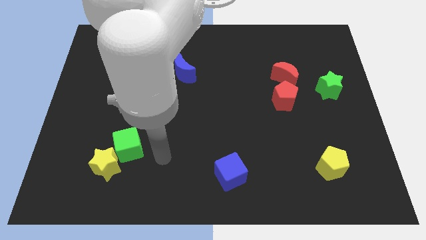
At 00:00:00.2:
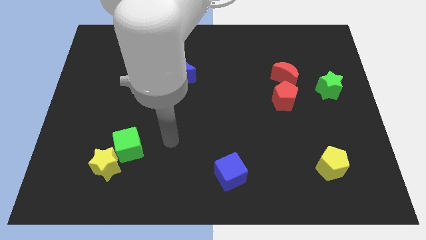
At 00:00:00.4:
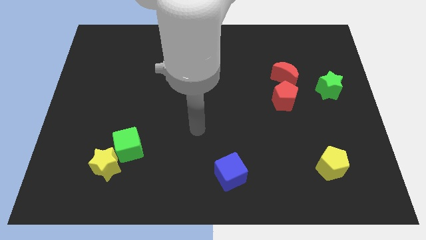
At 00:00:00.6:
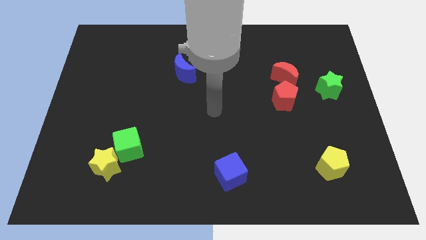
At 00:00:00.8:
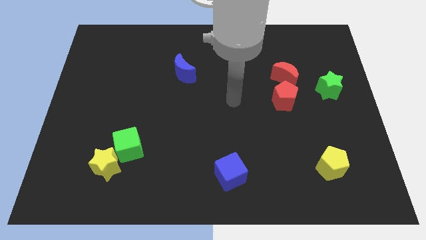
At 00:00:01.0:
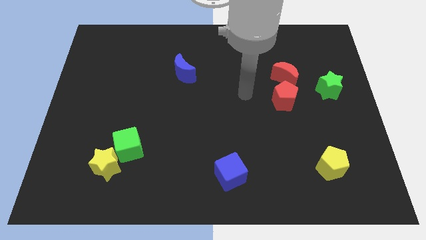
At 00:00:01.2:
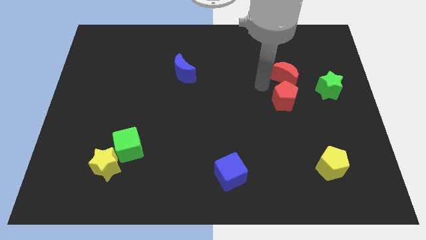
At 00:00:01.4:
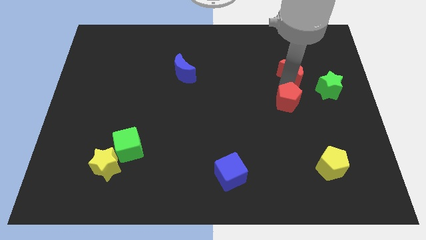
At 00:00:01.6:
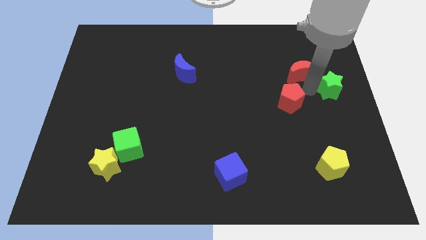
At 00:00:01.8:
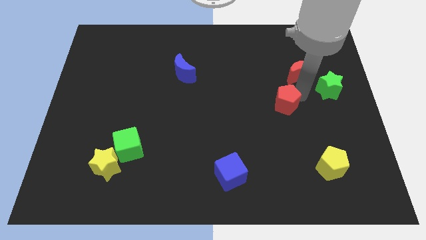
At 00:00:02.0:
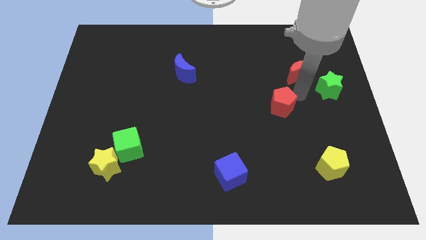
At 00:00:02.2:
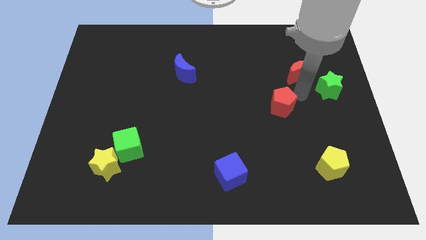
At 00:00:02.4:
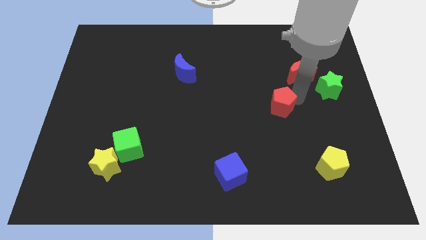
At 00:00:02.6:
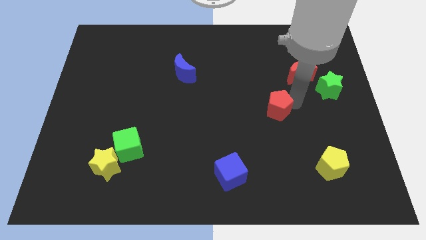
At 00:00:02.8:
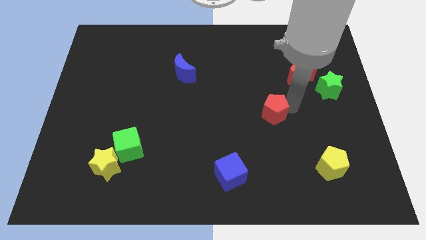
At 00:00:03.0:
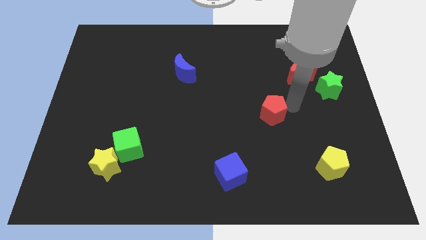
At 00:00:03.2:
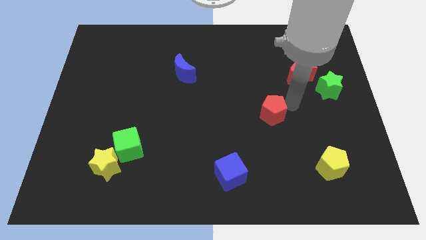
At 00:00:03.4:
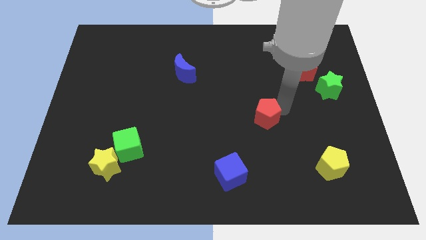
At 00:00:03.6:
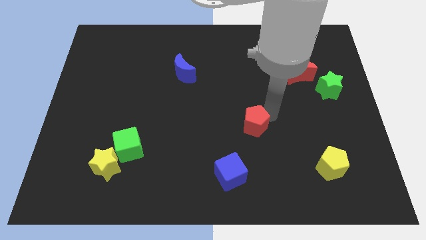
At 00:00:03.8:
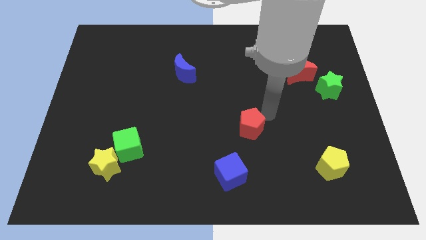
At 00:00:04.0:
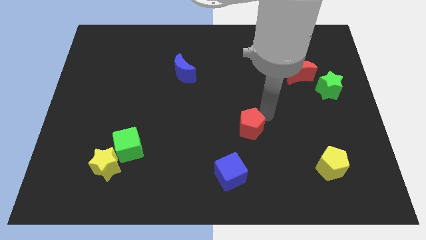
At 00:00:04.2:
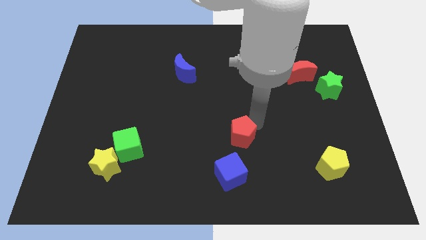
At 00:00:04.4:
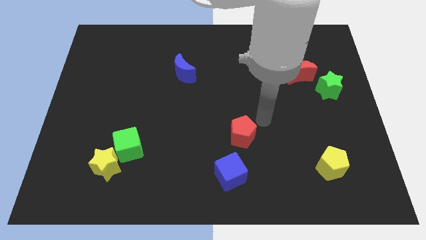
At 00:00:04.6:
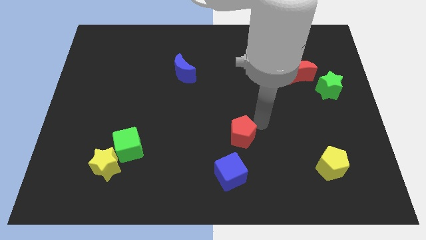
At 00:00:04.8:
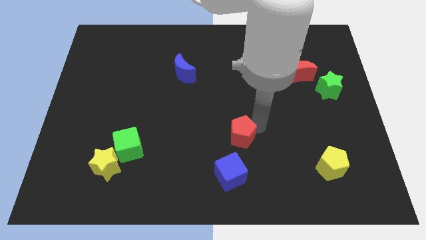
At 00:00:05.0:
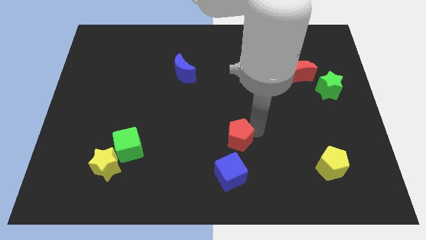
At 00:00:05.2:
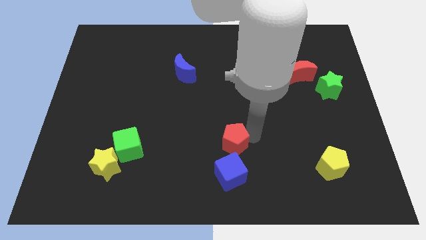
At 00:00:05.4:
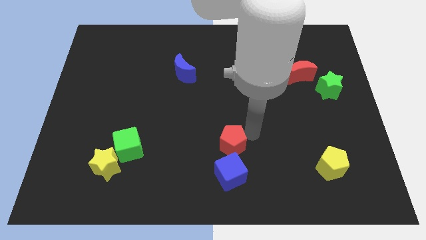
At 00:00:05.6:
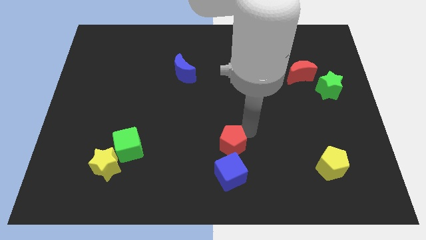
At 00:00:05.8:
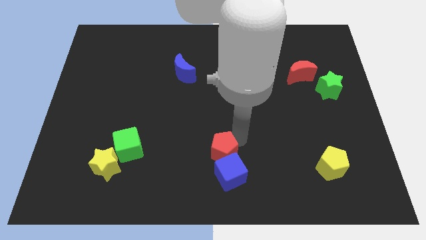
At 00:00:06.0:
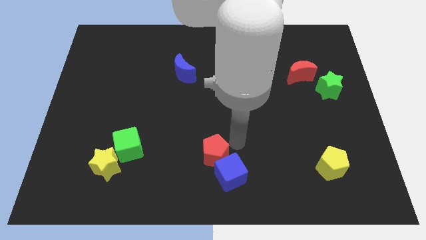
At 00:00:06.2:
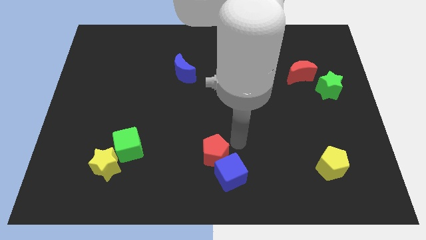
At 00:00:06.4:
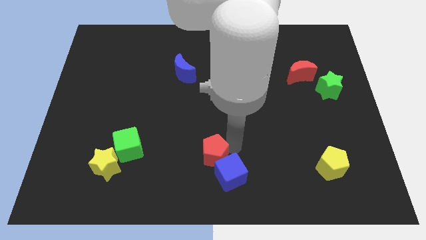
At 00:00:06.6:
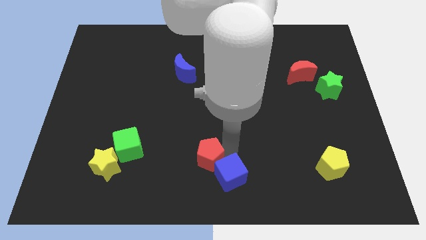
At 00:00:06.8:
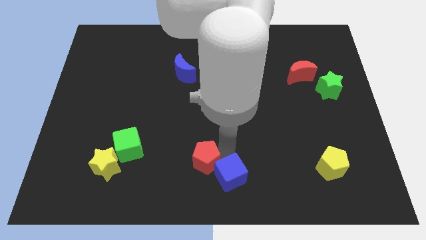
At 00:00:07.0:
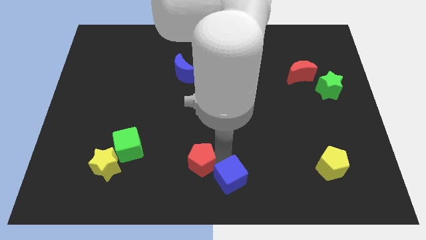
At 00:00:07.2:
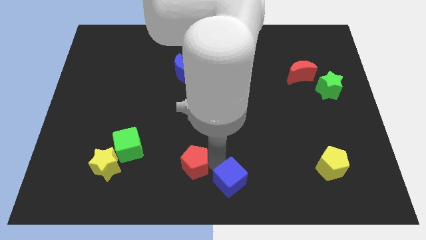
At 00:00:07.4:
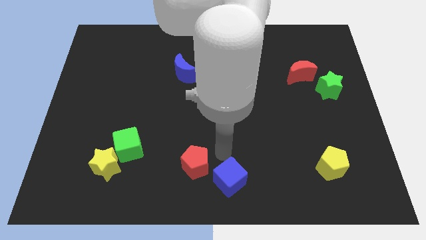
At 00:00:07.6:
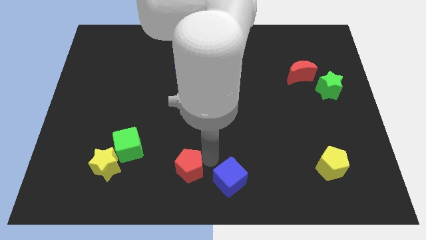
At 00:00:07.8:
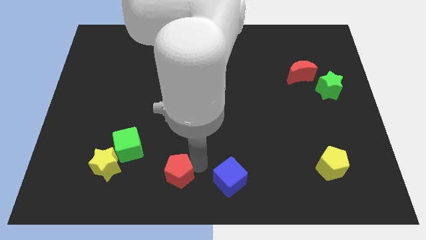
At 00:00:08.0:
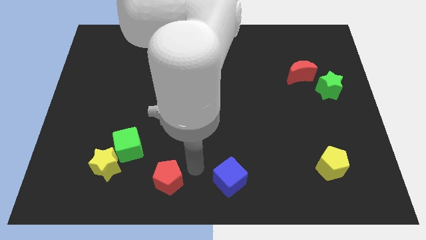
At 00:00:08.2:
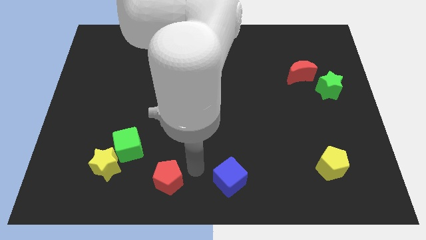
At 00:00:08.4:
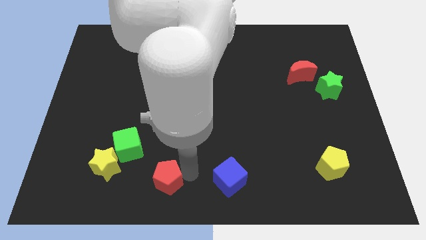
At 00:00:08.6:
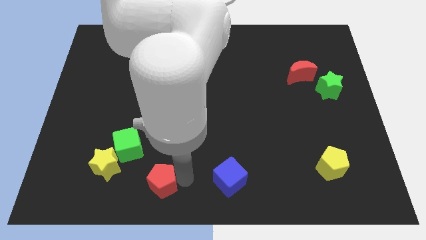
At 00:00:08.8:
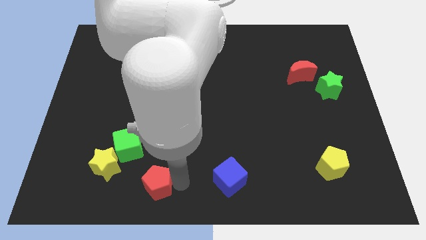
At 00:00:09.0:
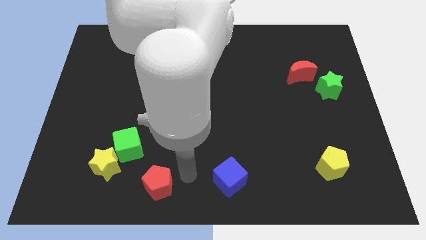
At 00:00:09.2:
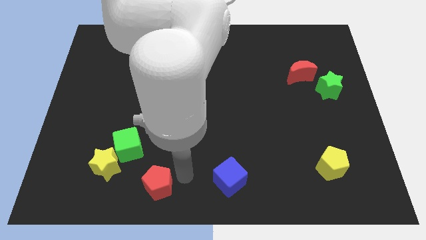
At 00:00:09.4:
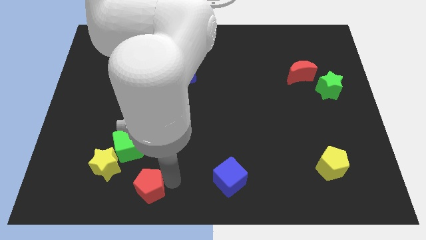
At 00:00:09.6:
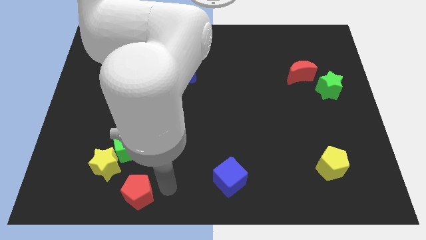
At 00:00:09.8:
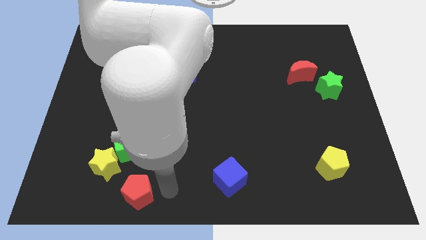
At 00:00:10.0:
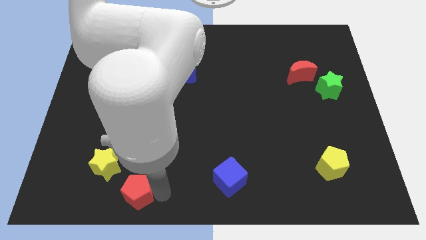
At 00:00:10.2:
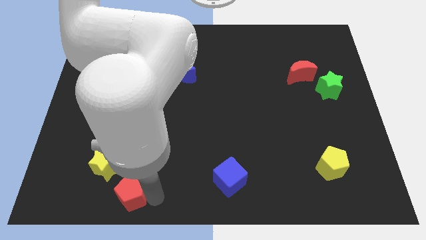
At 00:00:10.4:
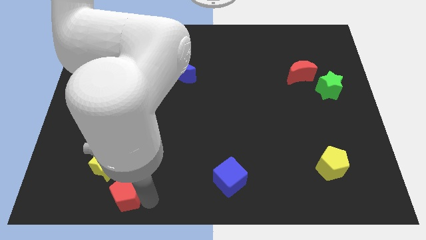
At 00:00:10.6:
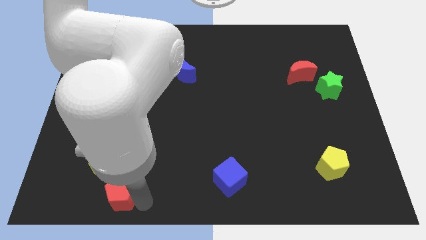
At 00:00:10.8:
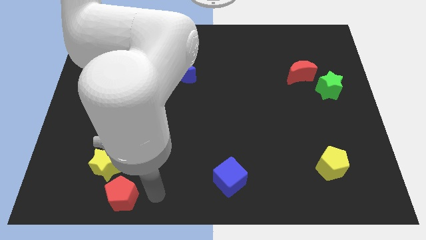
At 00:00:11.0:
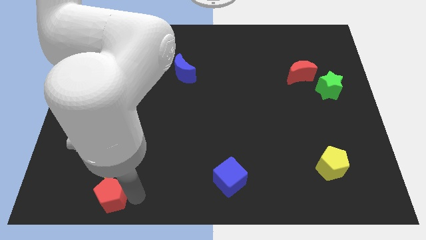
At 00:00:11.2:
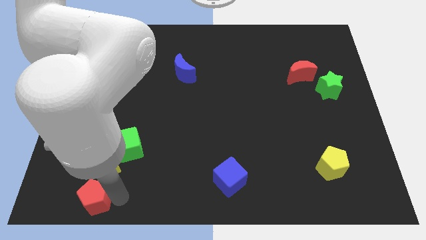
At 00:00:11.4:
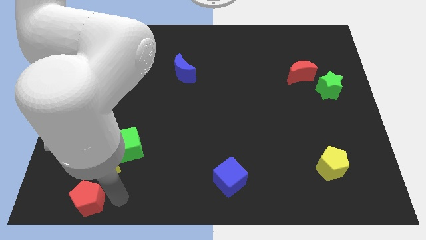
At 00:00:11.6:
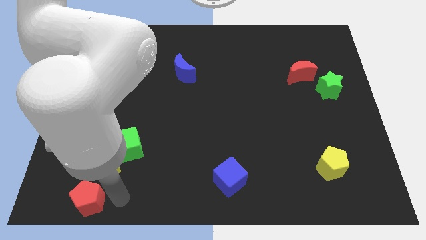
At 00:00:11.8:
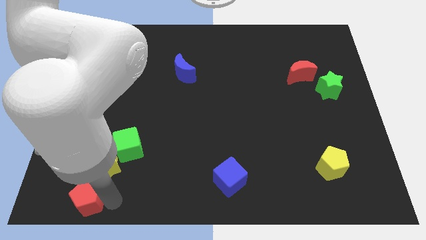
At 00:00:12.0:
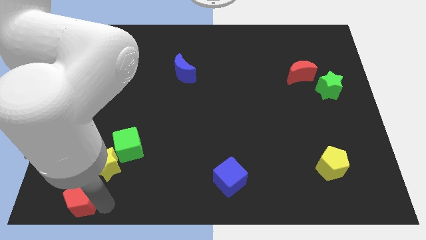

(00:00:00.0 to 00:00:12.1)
move the red pentagon to the bottom left

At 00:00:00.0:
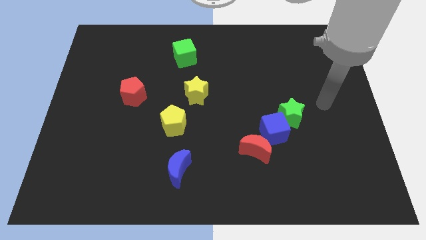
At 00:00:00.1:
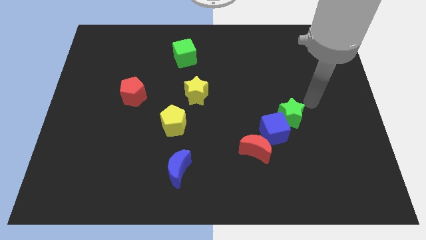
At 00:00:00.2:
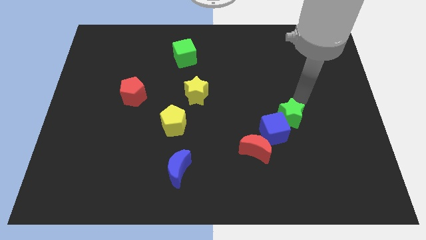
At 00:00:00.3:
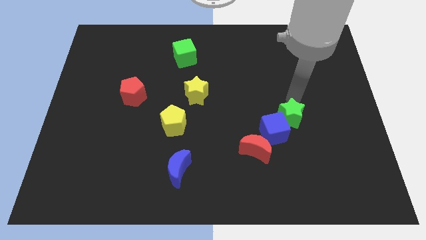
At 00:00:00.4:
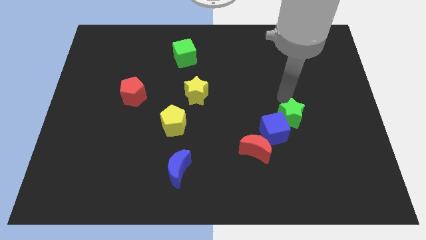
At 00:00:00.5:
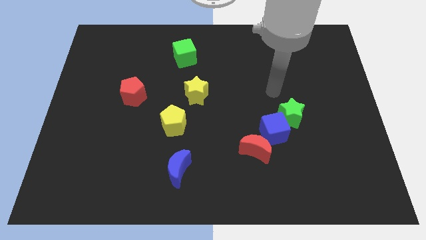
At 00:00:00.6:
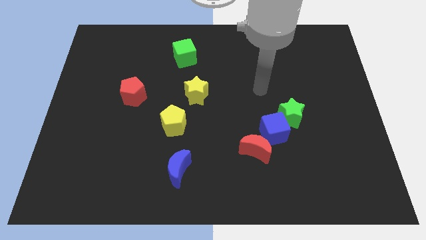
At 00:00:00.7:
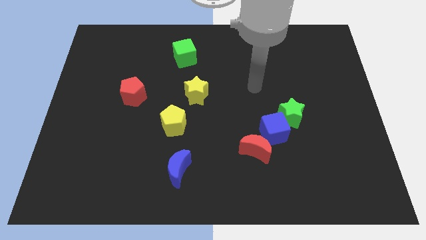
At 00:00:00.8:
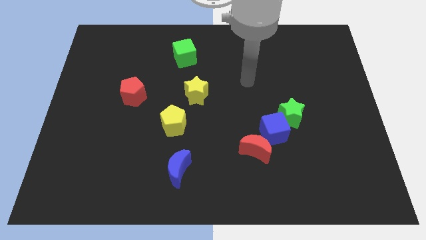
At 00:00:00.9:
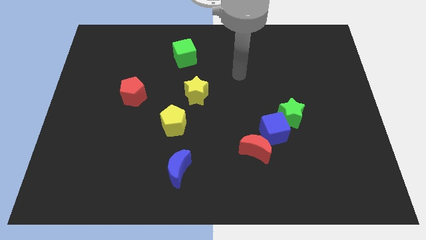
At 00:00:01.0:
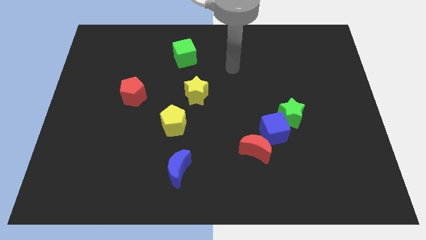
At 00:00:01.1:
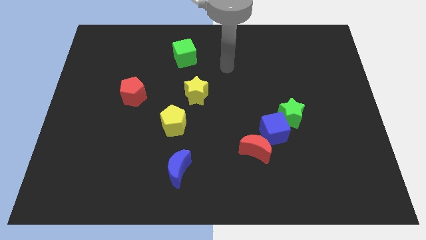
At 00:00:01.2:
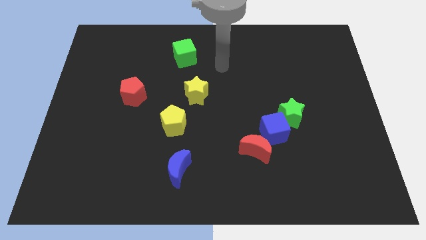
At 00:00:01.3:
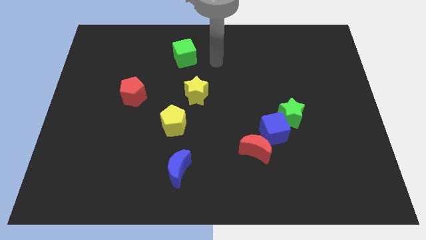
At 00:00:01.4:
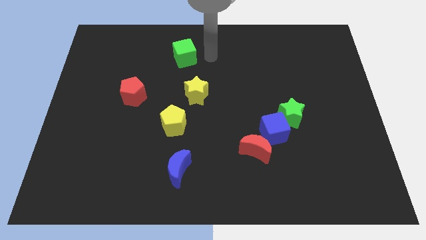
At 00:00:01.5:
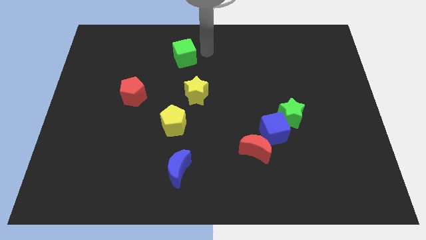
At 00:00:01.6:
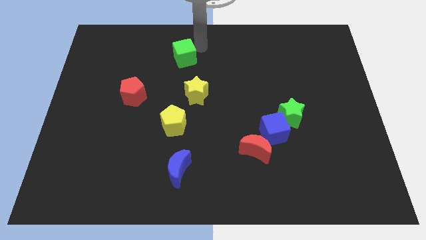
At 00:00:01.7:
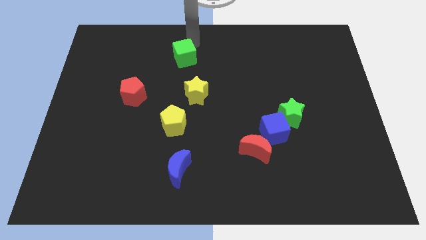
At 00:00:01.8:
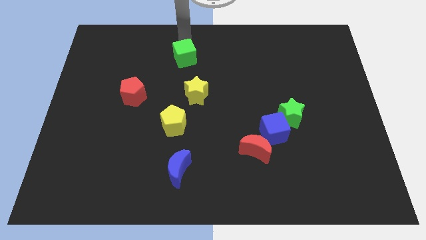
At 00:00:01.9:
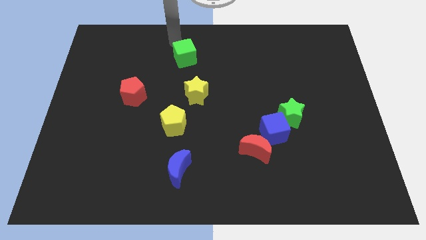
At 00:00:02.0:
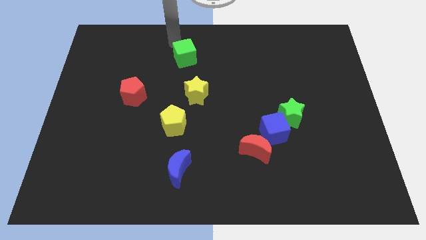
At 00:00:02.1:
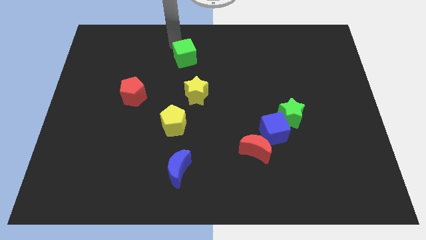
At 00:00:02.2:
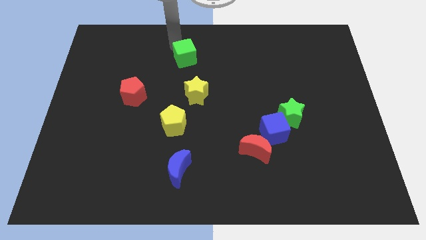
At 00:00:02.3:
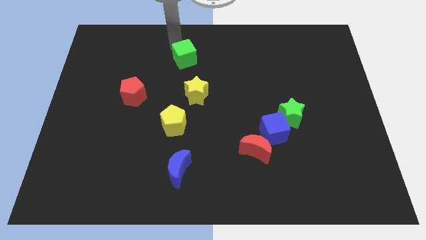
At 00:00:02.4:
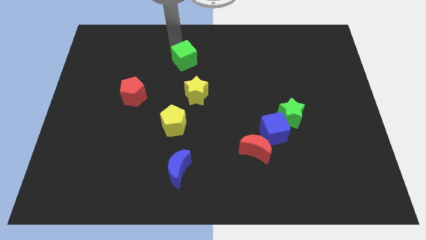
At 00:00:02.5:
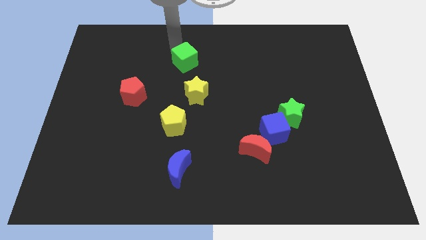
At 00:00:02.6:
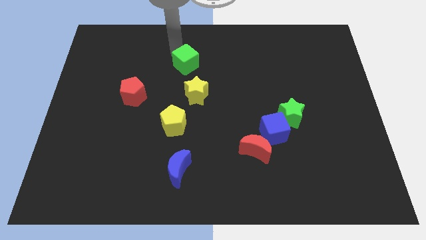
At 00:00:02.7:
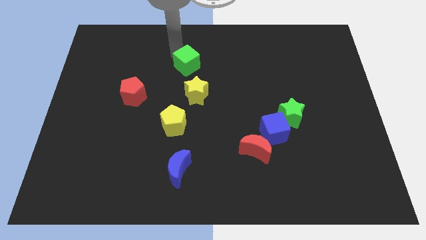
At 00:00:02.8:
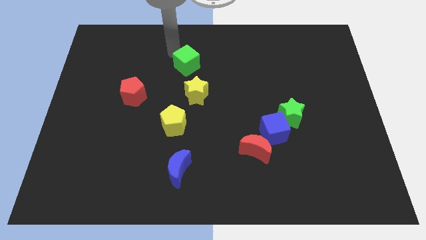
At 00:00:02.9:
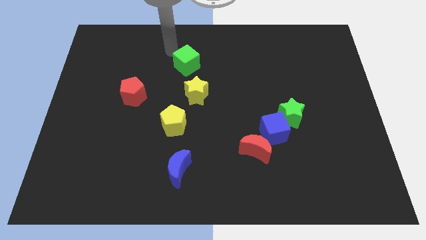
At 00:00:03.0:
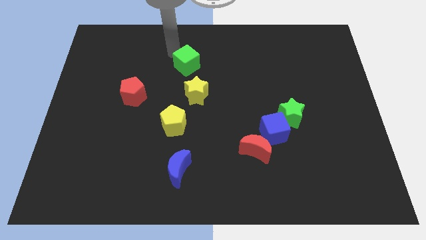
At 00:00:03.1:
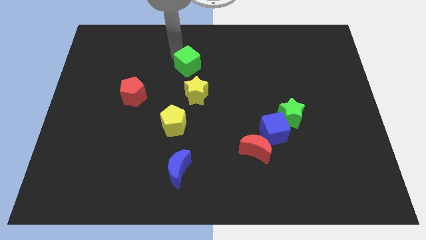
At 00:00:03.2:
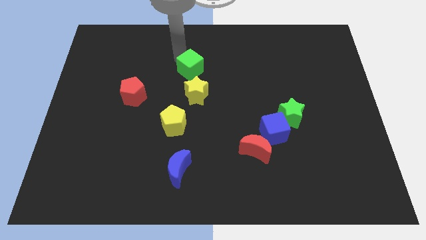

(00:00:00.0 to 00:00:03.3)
move the green cube to the center
